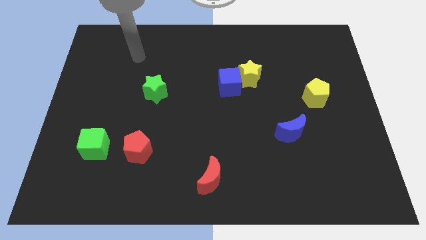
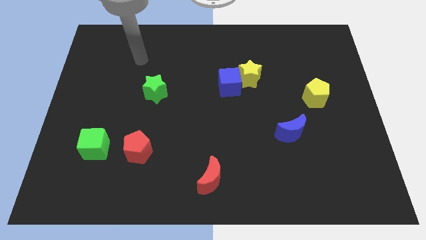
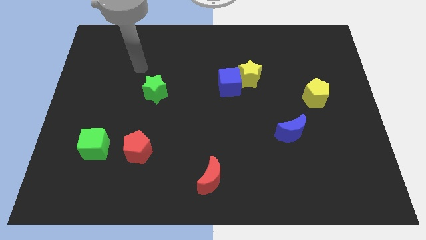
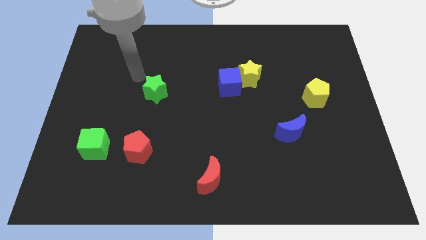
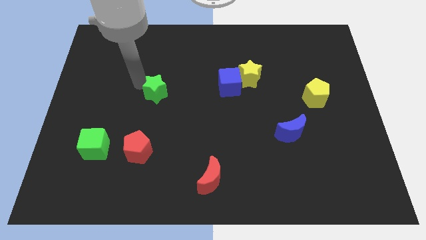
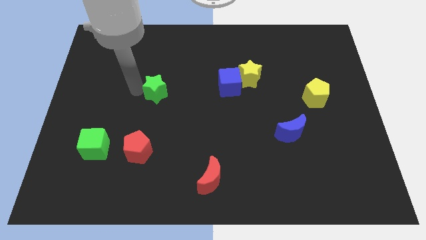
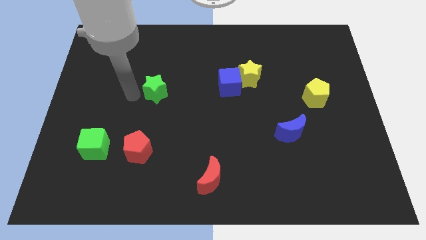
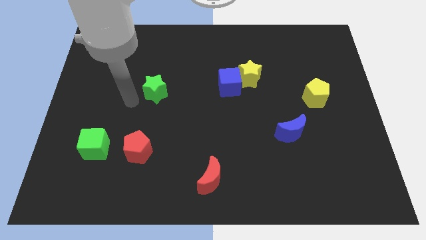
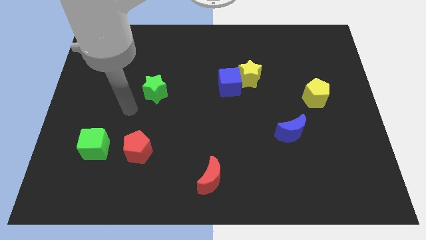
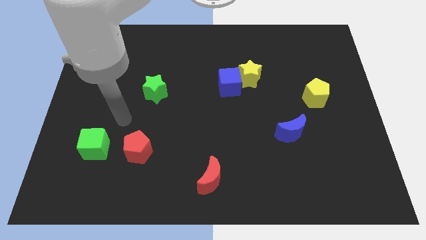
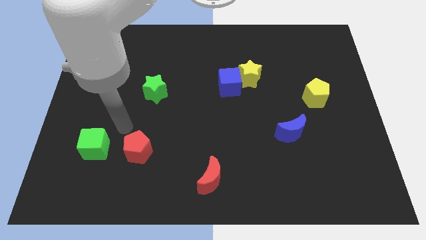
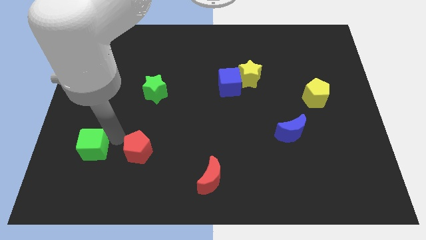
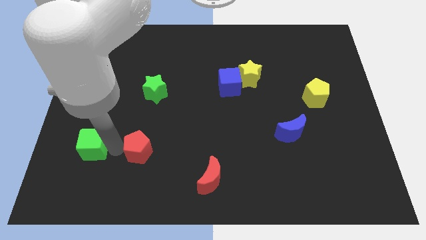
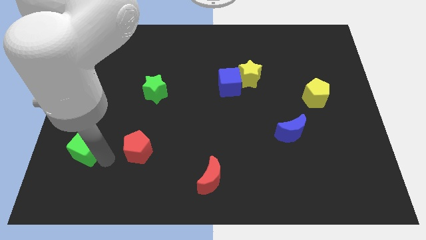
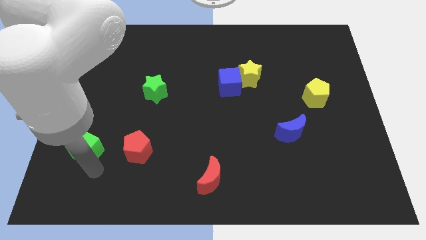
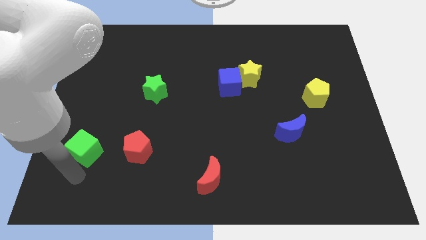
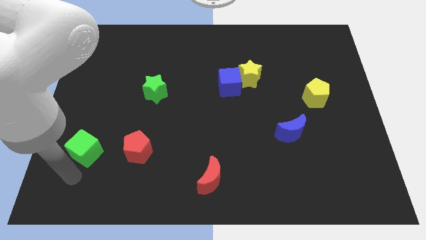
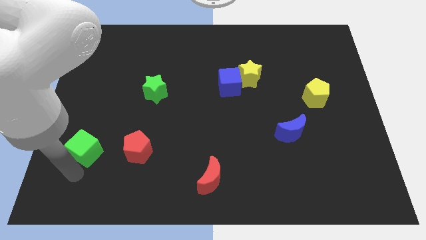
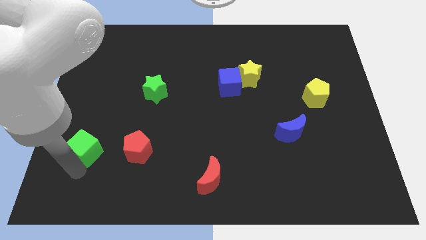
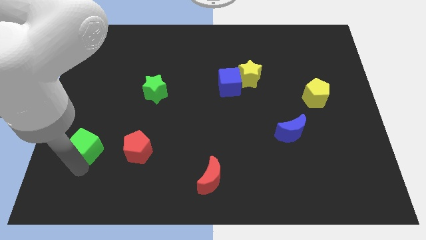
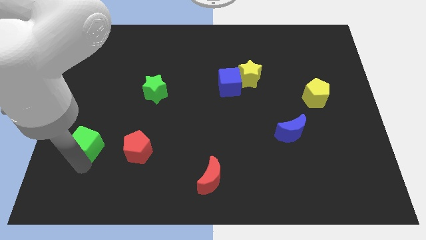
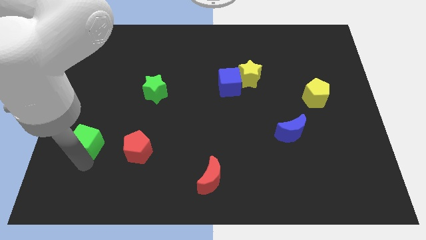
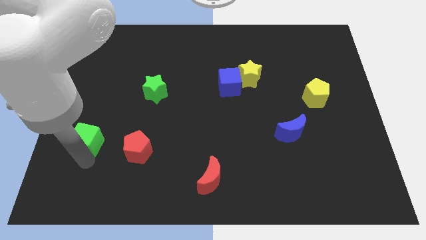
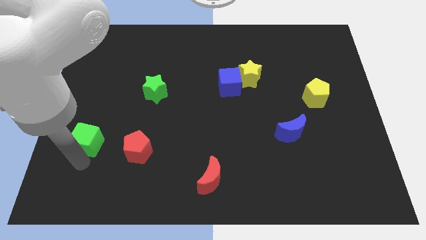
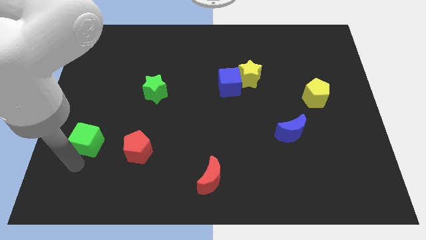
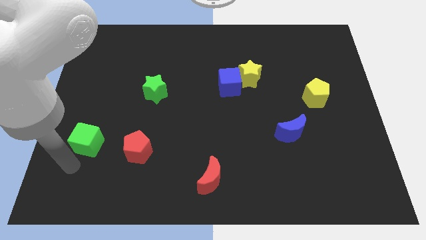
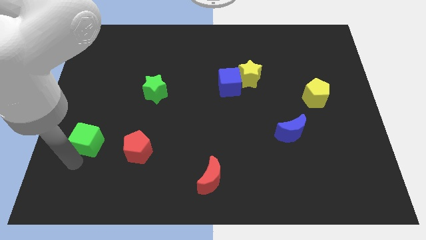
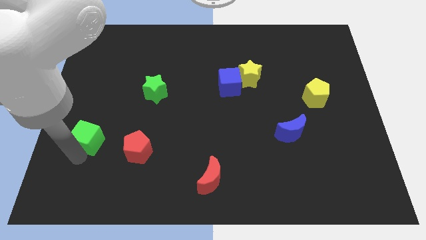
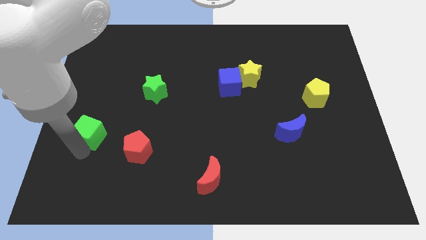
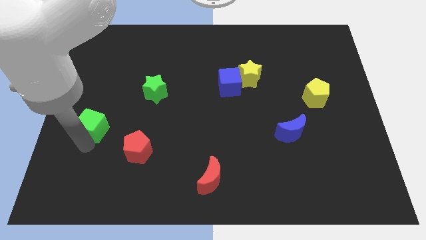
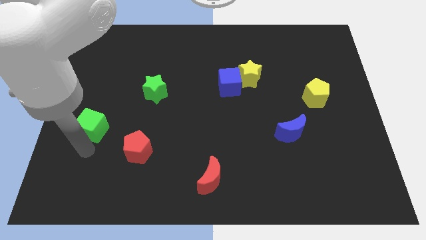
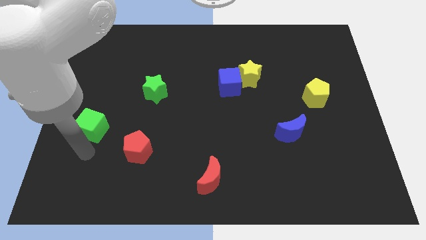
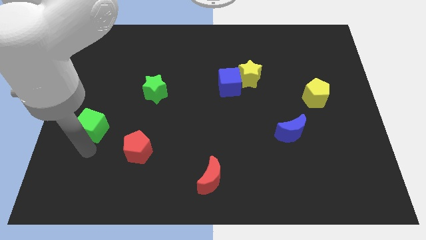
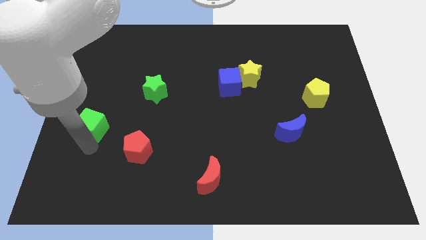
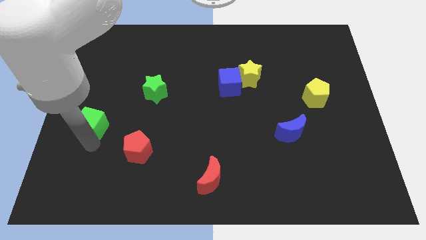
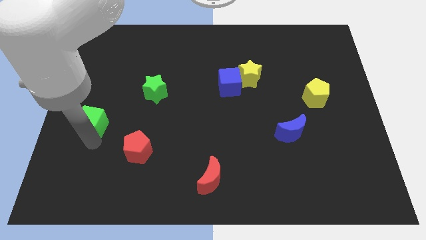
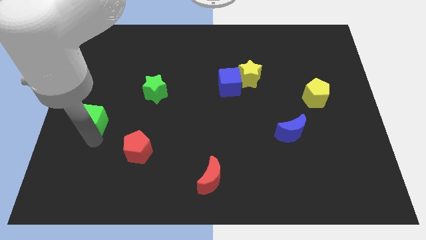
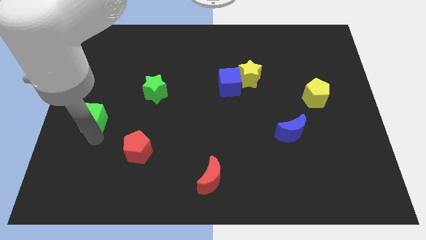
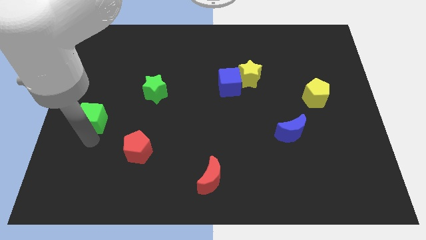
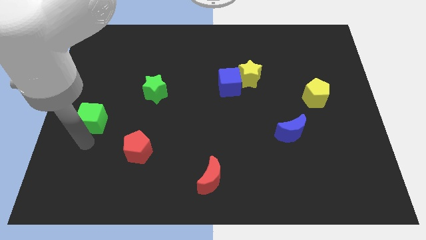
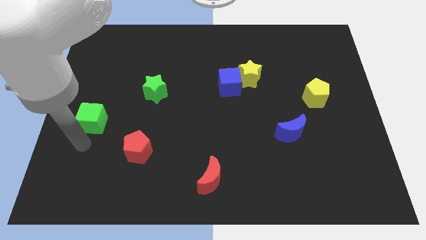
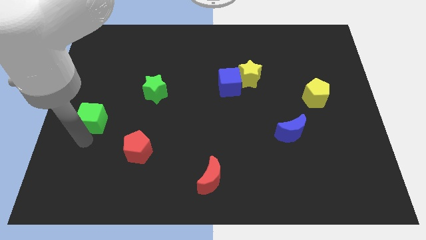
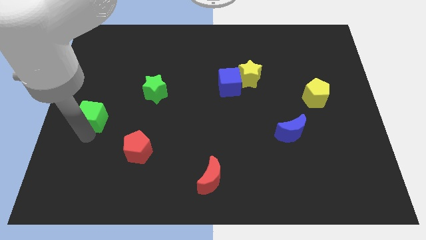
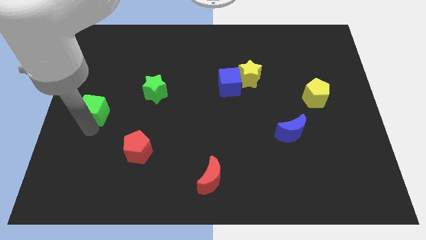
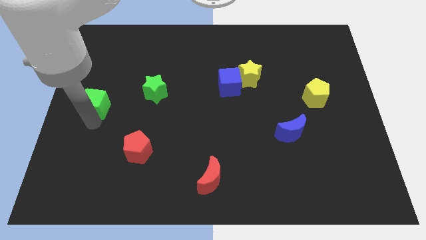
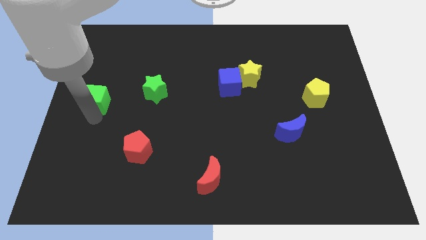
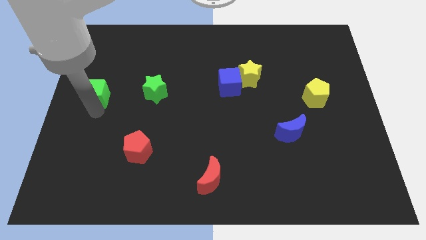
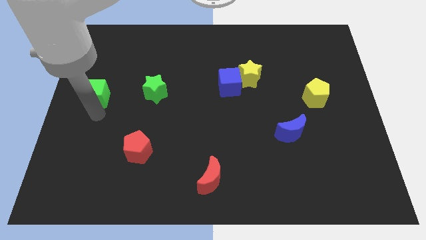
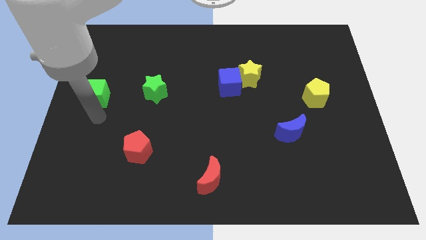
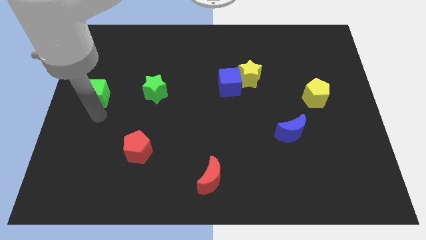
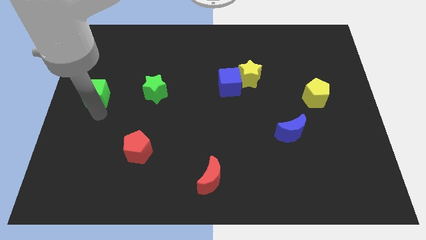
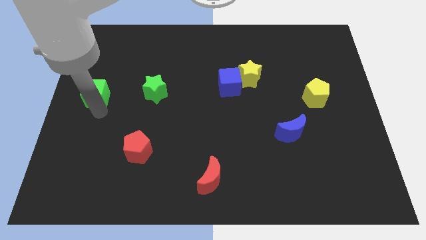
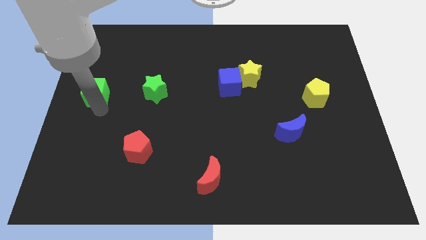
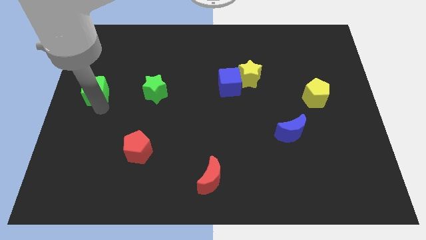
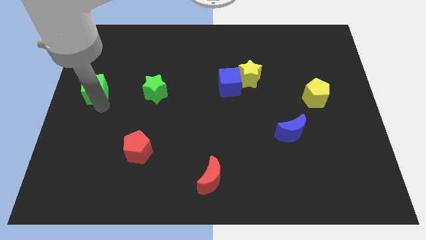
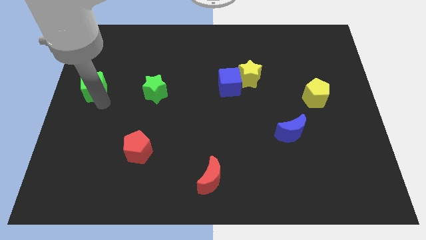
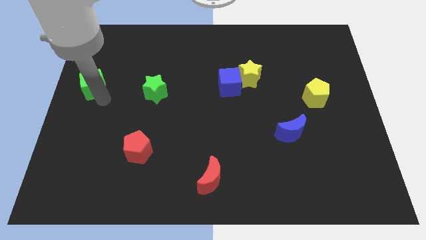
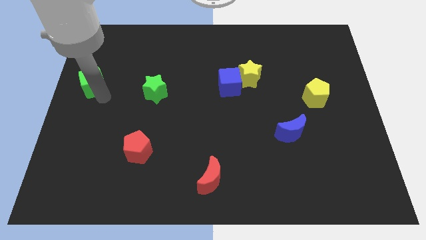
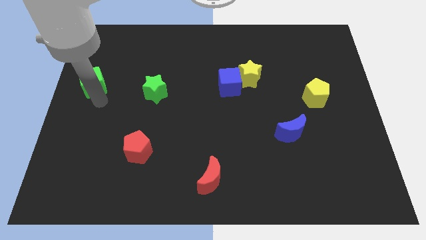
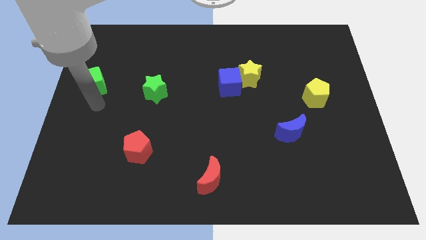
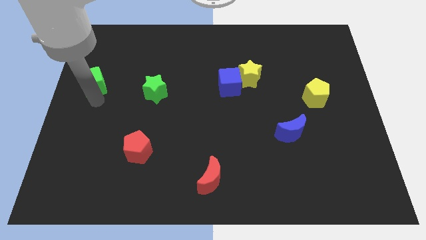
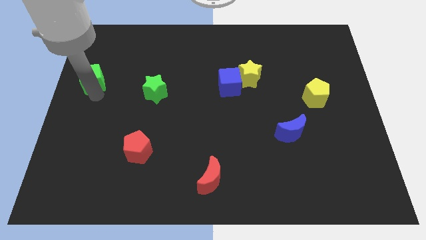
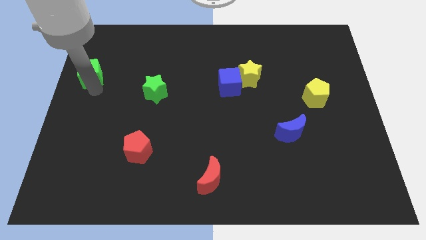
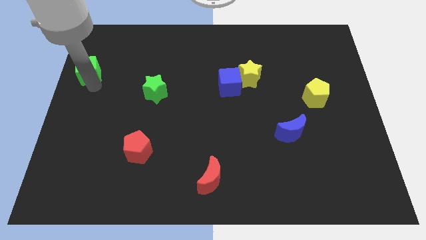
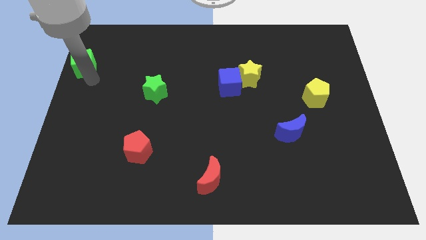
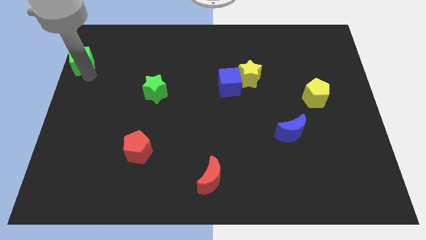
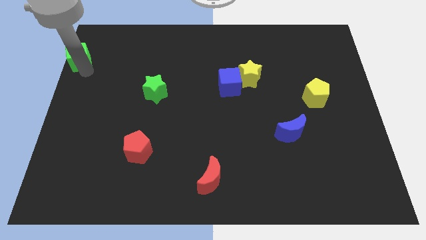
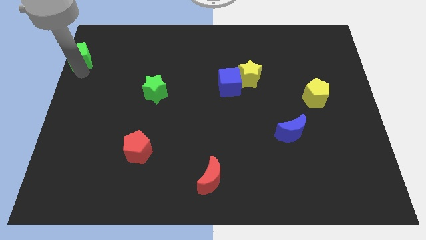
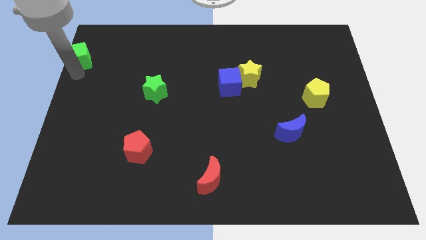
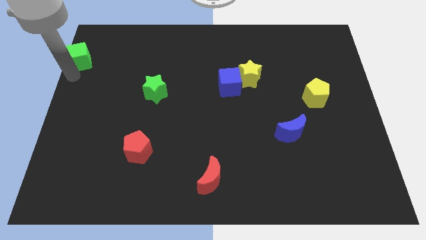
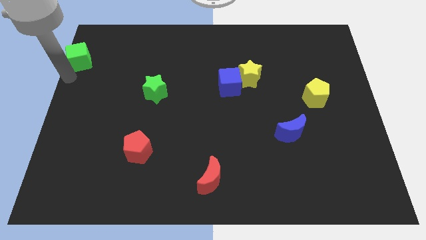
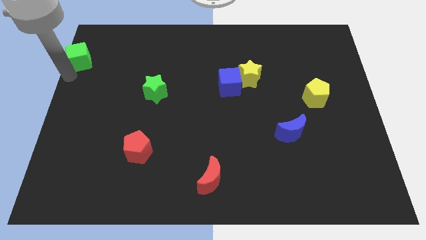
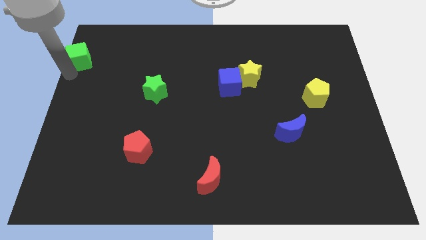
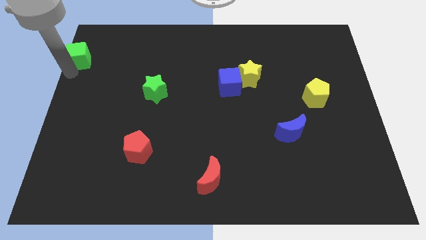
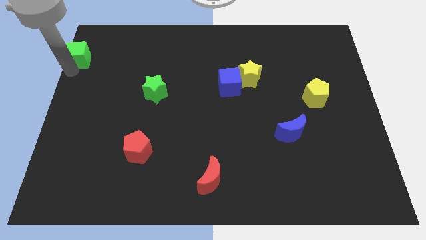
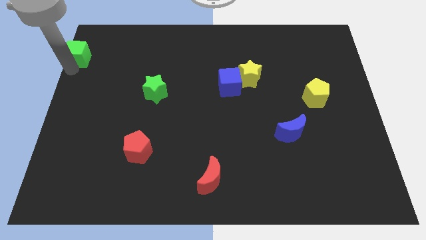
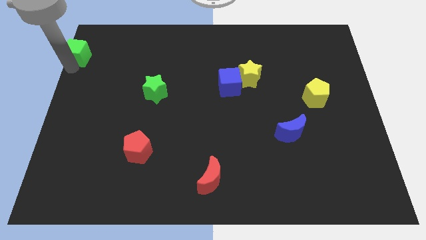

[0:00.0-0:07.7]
put the green cube to the top left of the board

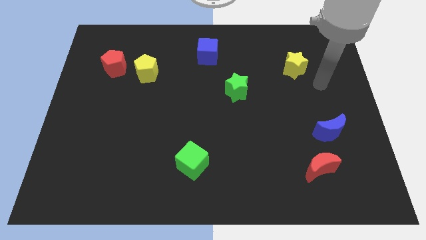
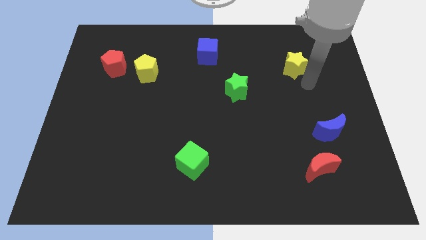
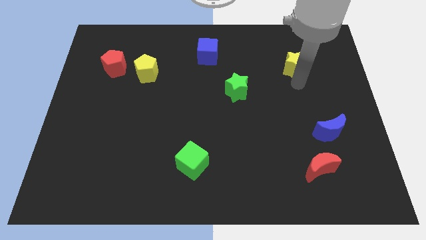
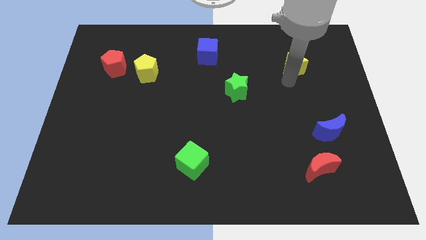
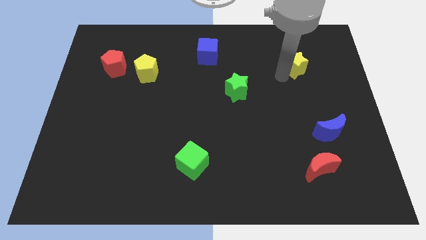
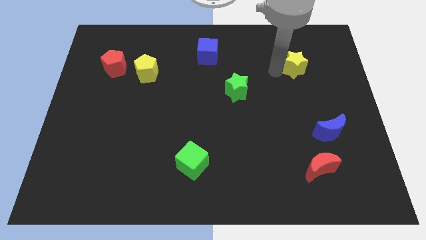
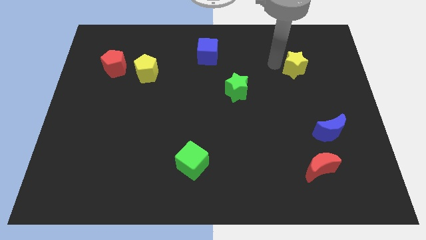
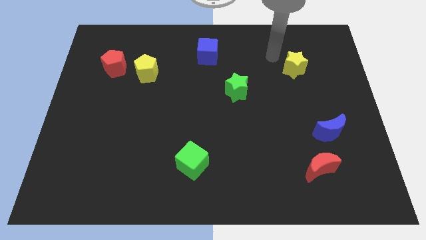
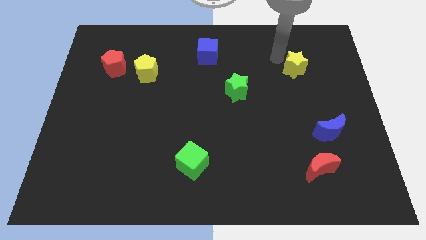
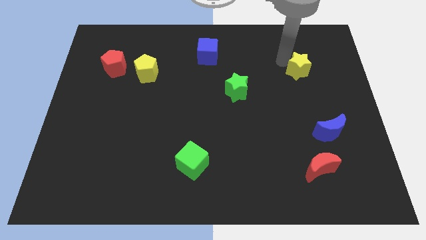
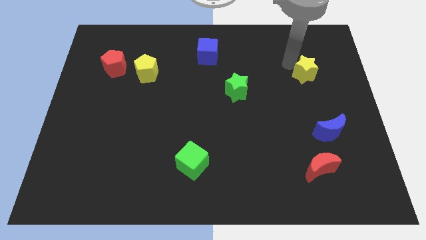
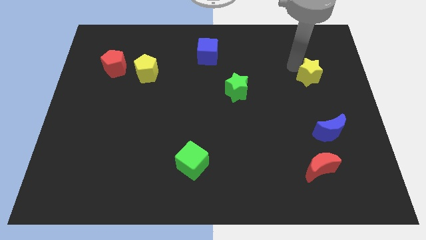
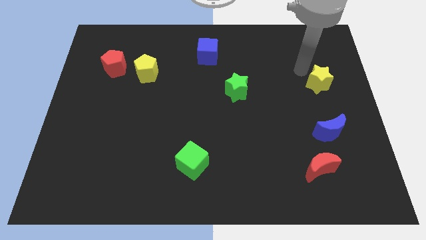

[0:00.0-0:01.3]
put the yellow star to the right side
